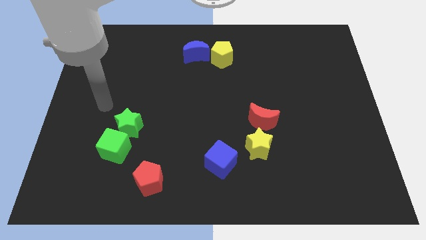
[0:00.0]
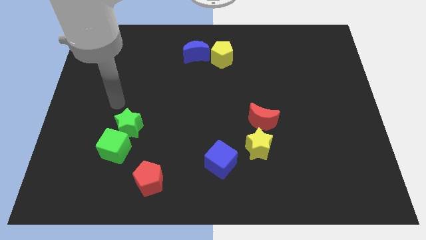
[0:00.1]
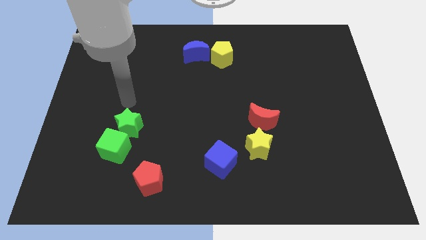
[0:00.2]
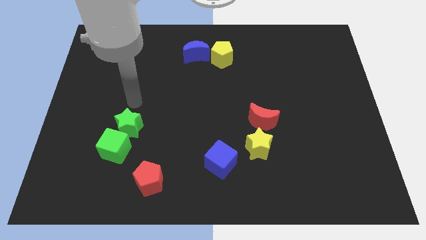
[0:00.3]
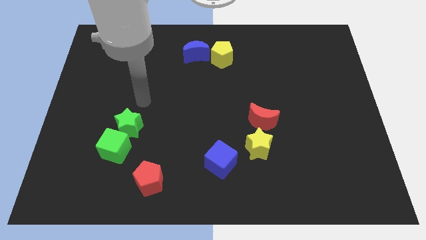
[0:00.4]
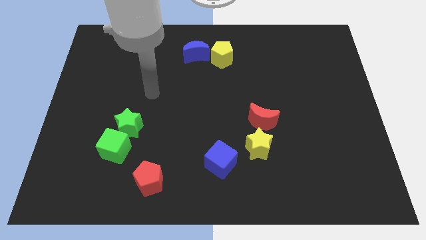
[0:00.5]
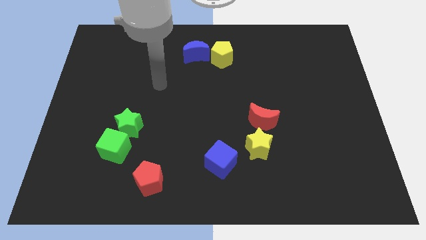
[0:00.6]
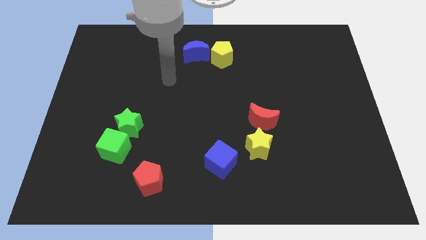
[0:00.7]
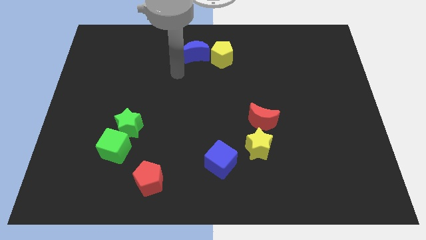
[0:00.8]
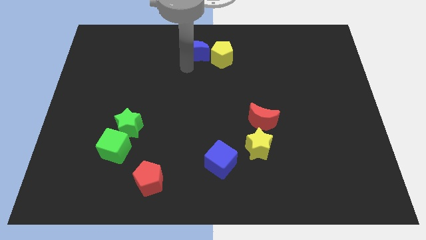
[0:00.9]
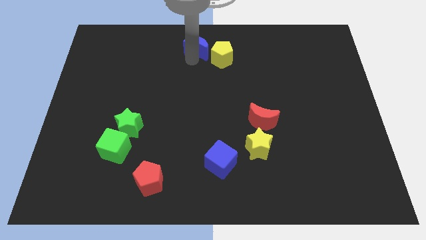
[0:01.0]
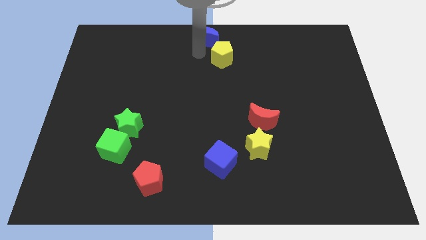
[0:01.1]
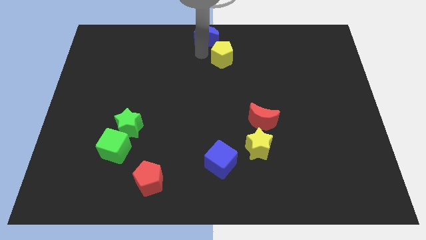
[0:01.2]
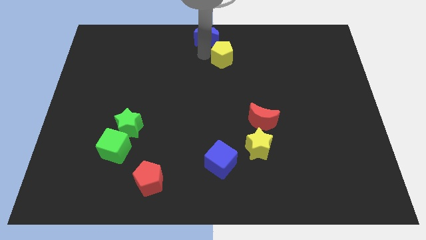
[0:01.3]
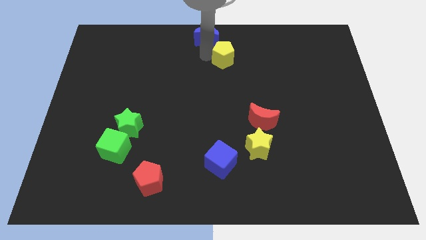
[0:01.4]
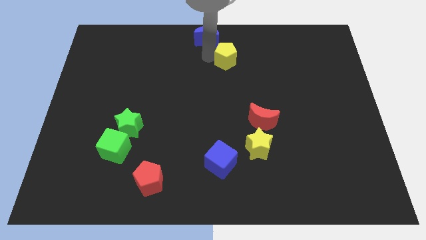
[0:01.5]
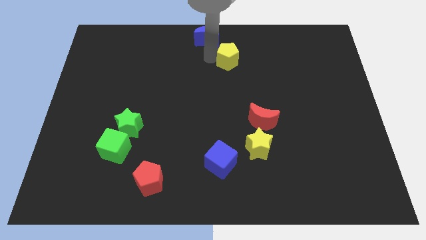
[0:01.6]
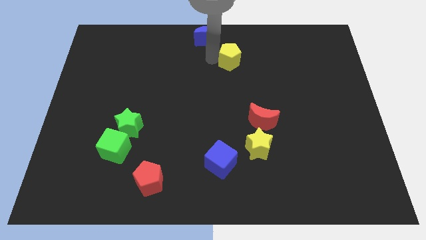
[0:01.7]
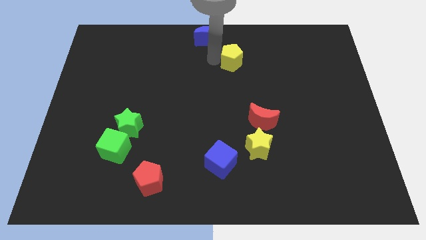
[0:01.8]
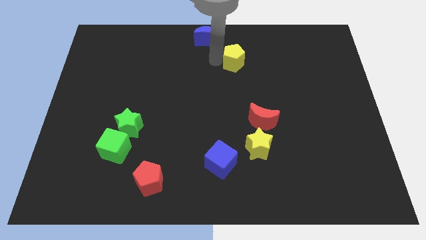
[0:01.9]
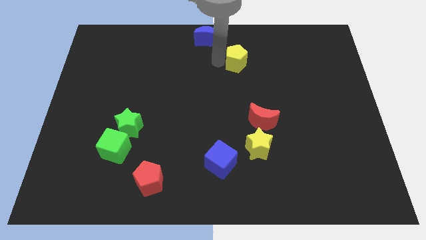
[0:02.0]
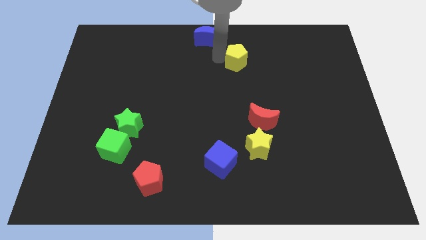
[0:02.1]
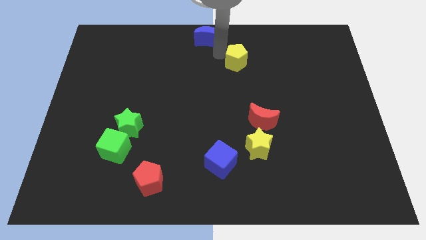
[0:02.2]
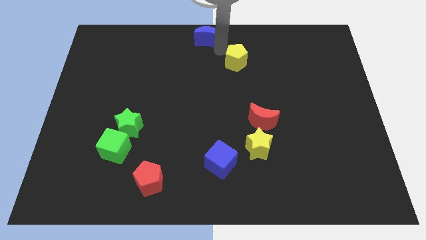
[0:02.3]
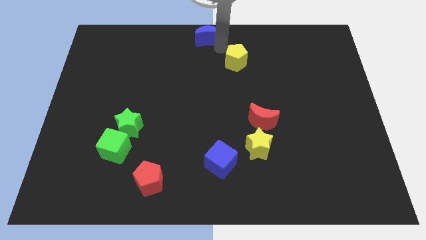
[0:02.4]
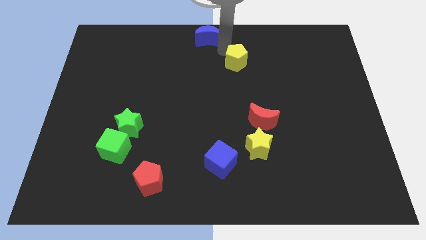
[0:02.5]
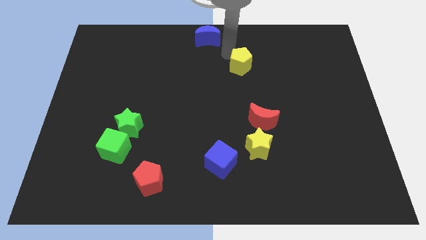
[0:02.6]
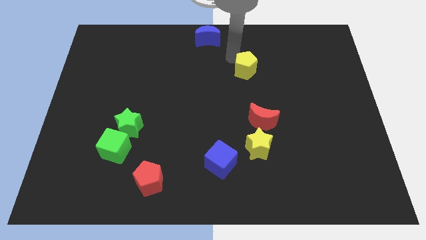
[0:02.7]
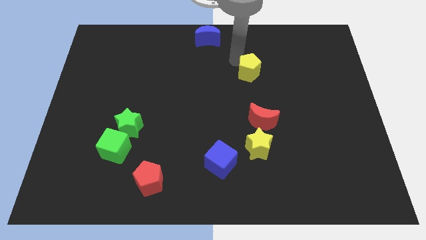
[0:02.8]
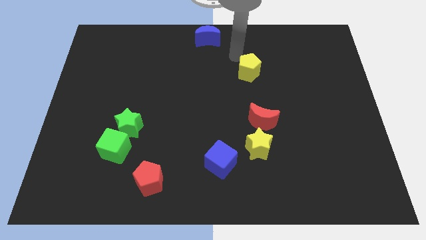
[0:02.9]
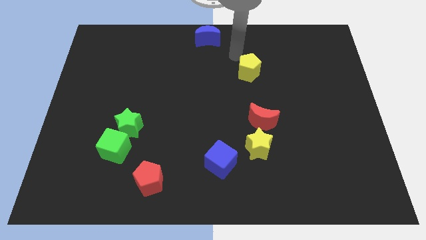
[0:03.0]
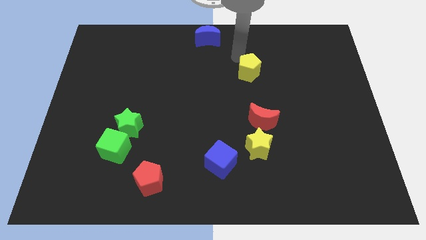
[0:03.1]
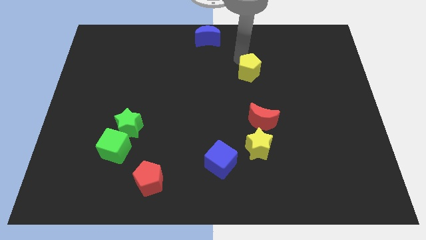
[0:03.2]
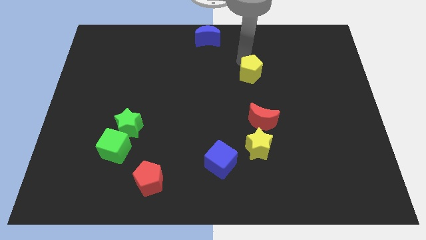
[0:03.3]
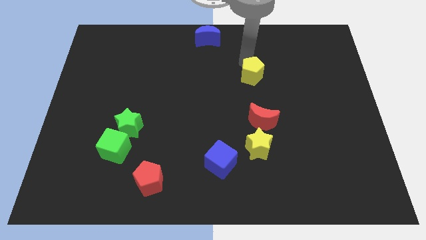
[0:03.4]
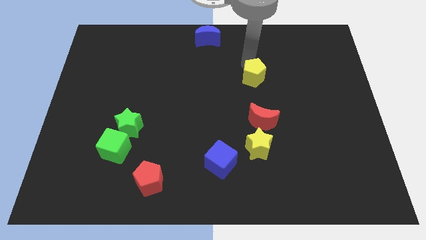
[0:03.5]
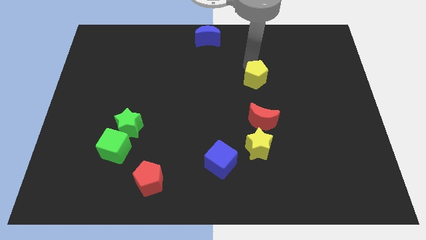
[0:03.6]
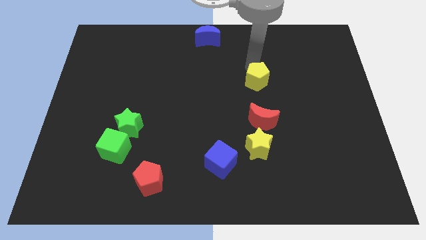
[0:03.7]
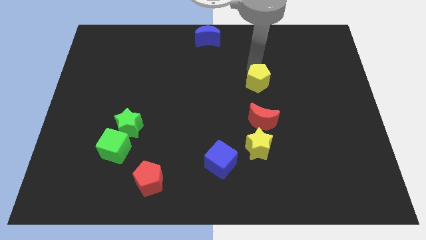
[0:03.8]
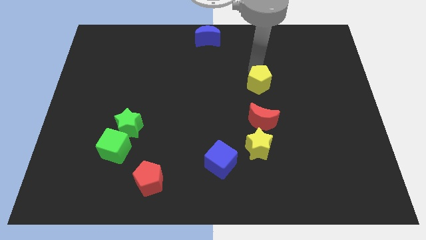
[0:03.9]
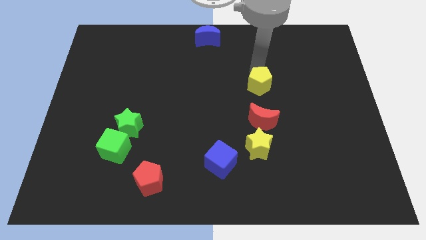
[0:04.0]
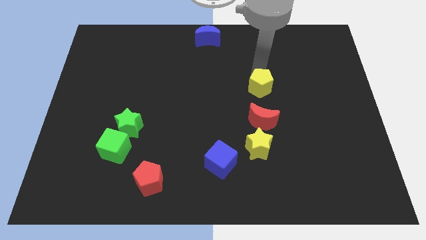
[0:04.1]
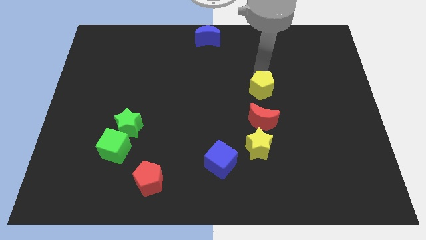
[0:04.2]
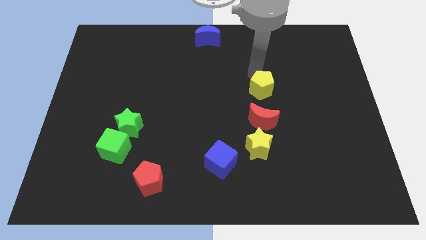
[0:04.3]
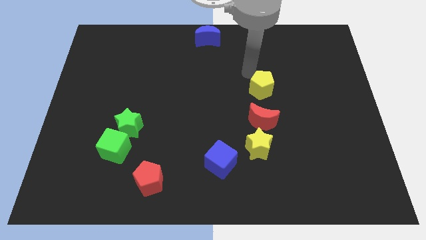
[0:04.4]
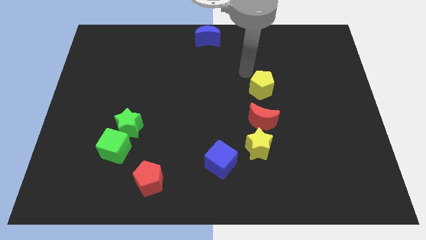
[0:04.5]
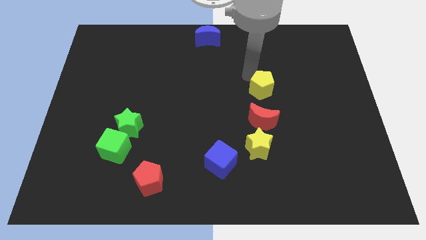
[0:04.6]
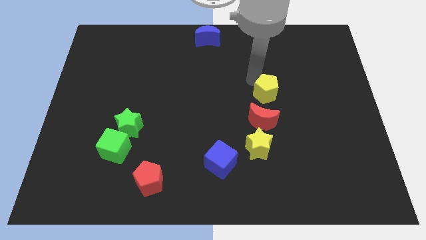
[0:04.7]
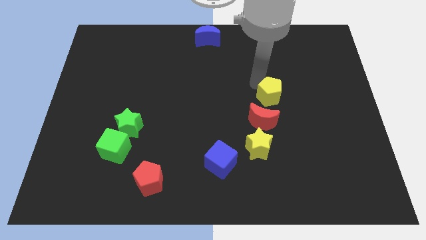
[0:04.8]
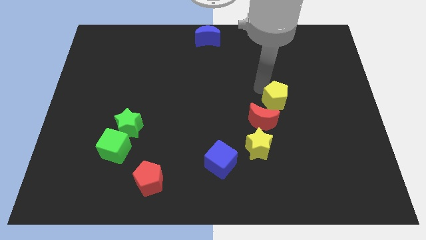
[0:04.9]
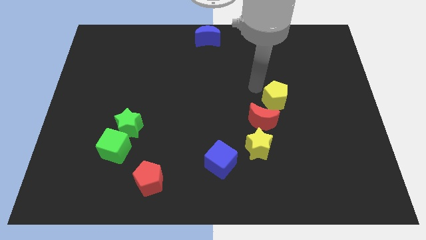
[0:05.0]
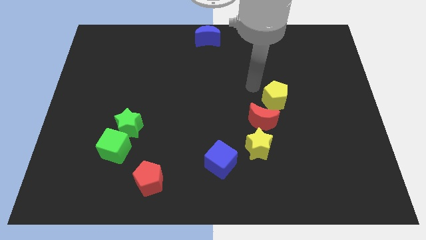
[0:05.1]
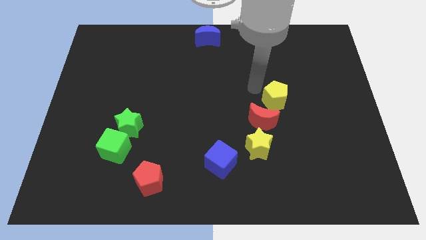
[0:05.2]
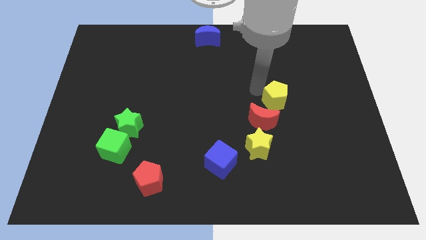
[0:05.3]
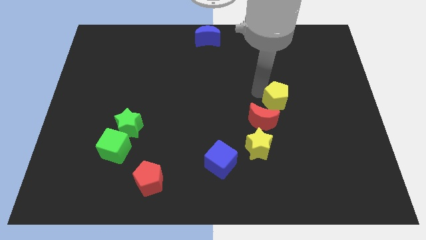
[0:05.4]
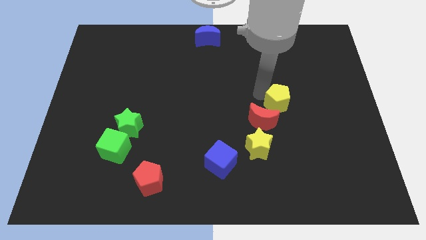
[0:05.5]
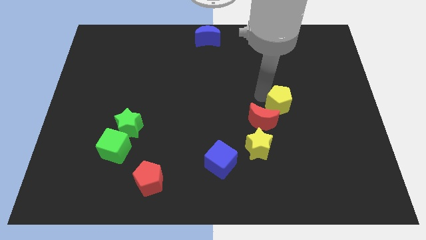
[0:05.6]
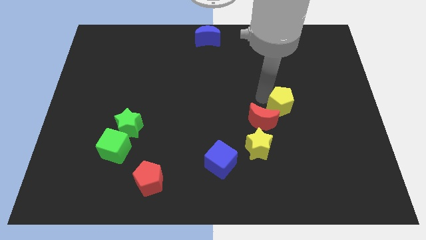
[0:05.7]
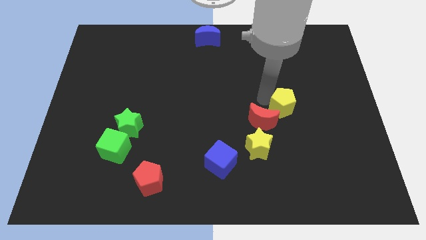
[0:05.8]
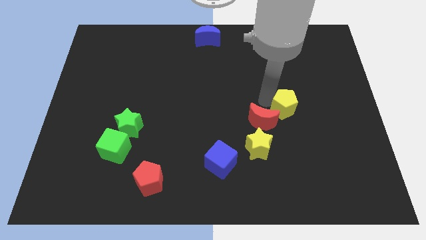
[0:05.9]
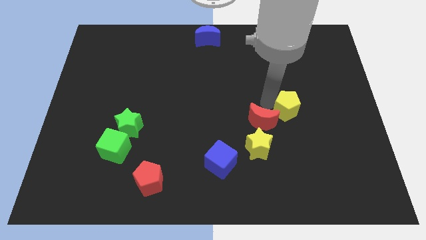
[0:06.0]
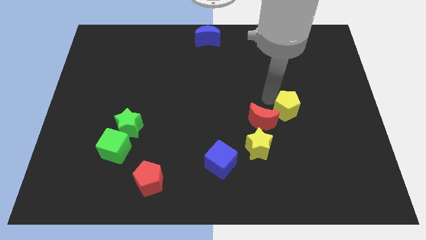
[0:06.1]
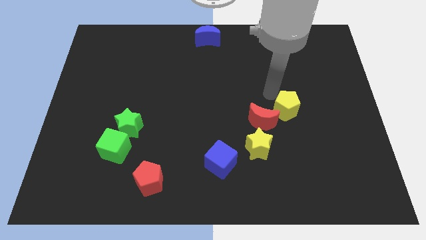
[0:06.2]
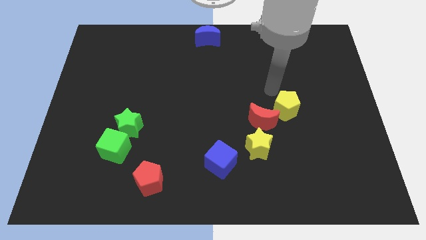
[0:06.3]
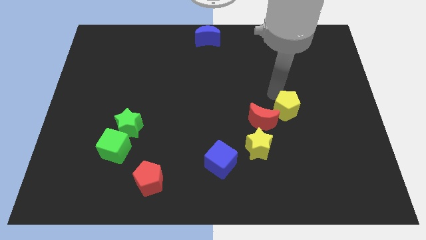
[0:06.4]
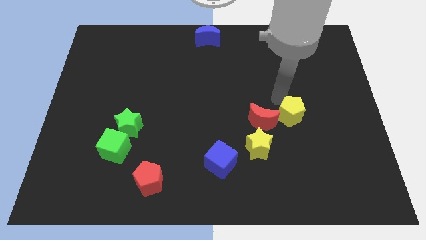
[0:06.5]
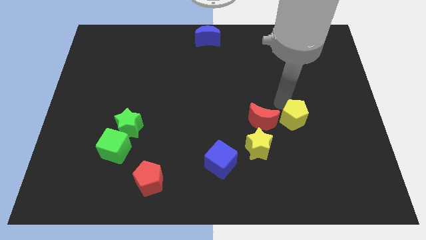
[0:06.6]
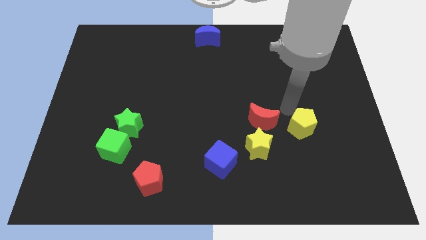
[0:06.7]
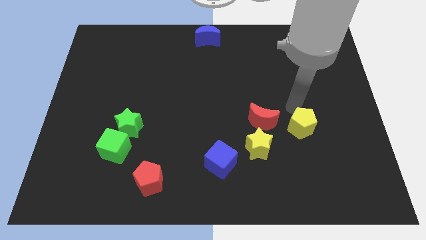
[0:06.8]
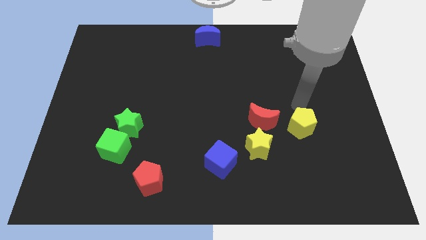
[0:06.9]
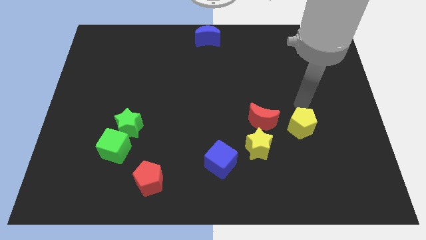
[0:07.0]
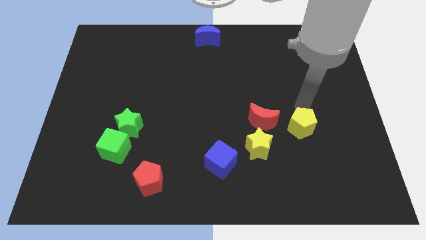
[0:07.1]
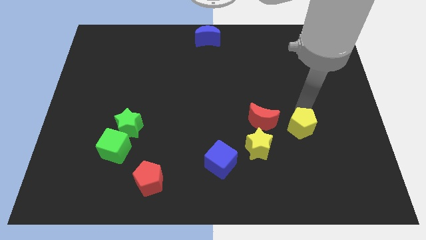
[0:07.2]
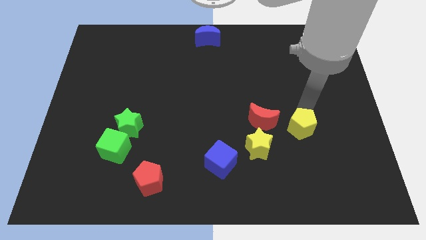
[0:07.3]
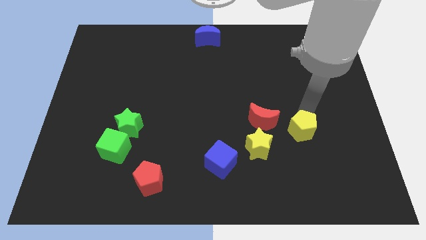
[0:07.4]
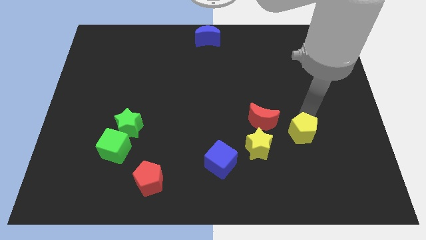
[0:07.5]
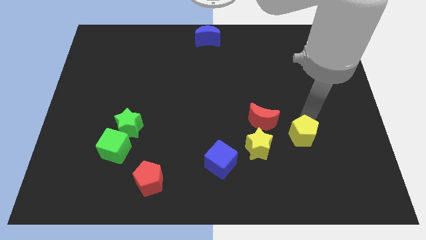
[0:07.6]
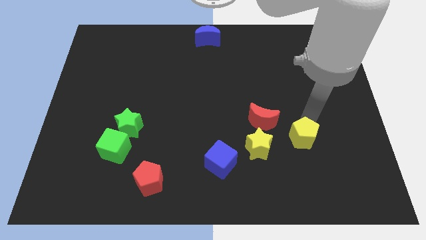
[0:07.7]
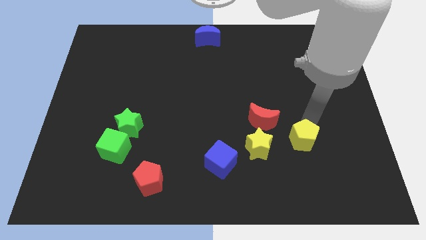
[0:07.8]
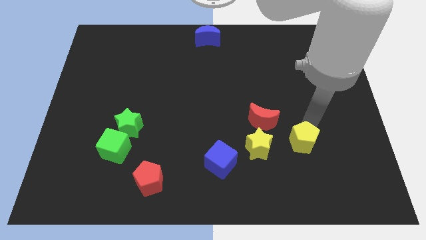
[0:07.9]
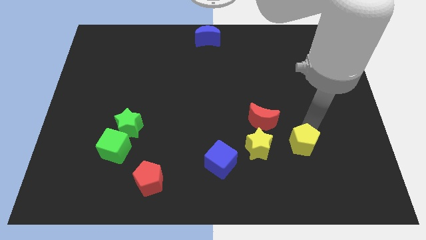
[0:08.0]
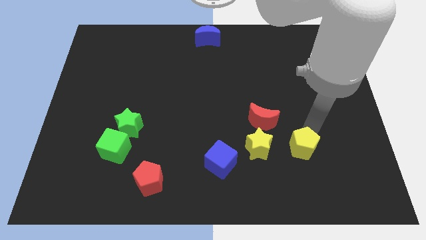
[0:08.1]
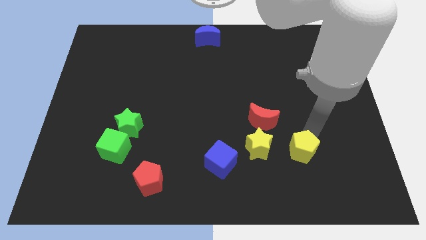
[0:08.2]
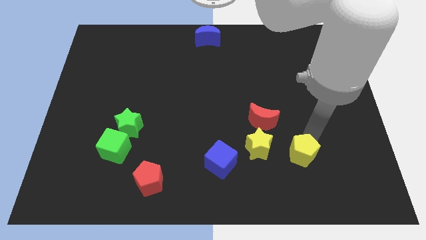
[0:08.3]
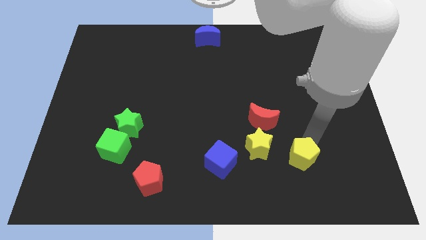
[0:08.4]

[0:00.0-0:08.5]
push the yellow pentagon to the bottom right of the yellow star
